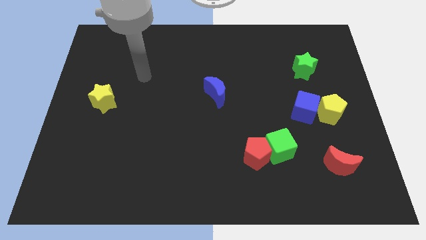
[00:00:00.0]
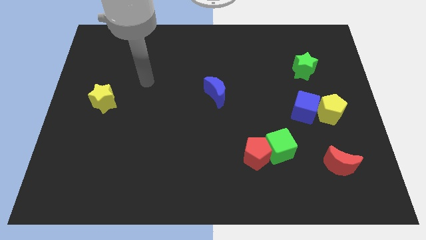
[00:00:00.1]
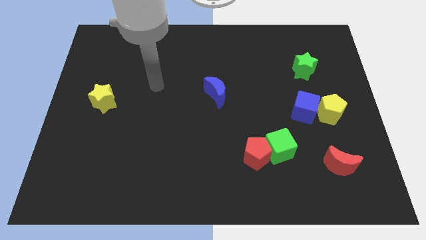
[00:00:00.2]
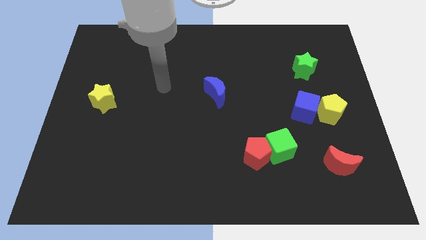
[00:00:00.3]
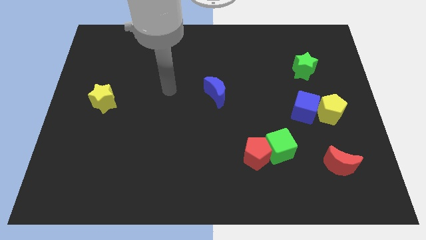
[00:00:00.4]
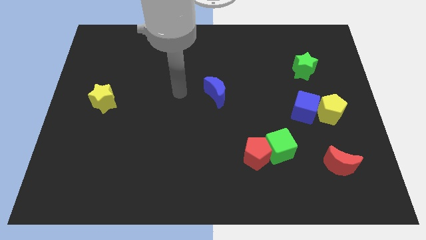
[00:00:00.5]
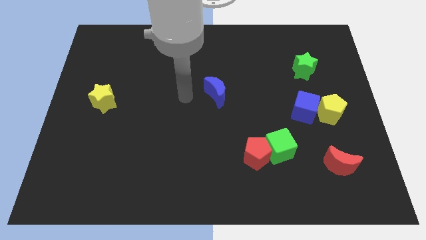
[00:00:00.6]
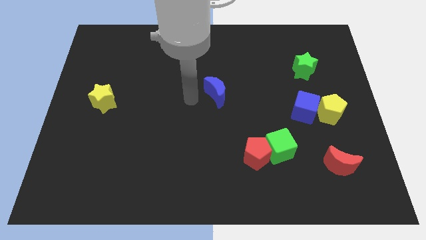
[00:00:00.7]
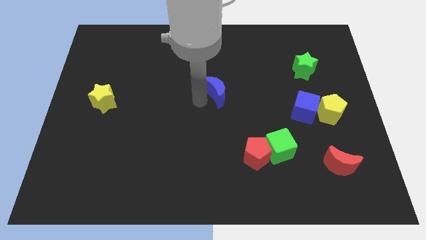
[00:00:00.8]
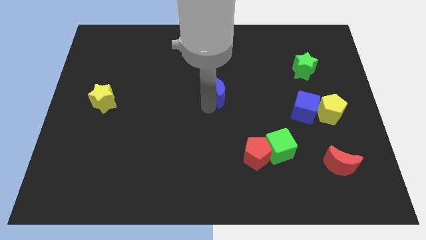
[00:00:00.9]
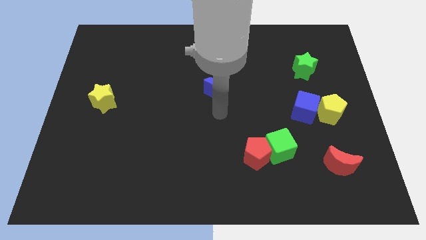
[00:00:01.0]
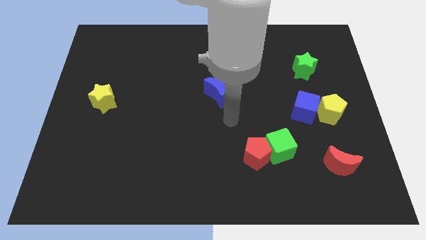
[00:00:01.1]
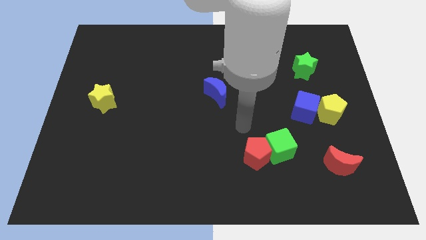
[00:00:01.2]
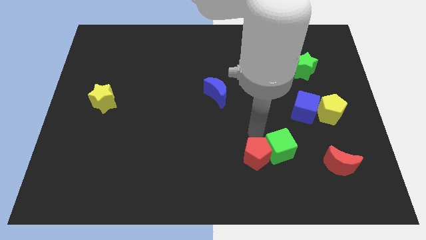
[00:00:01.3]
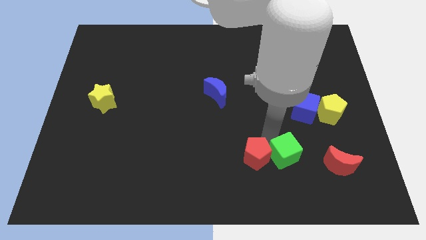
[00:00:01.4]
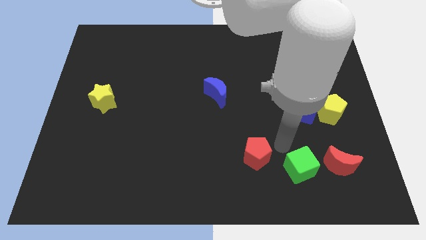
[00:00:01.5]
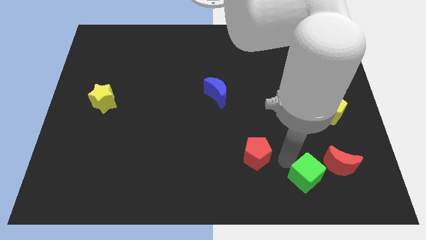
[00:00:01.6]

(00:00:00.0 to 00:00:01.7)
move the red pentagon away from the green cube

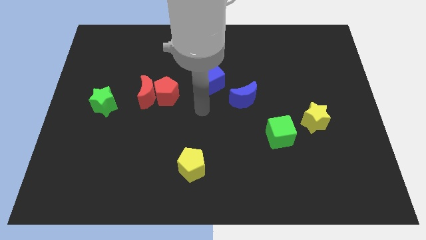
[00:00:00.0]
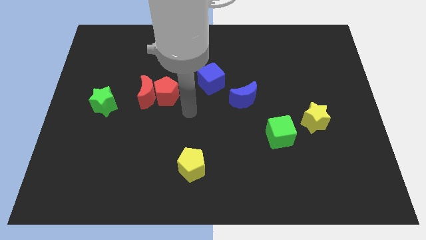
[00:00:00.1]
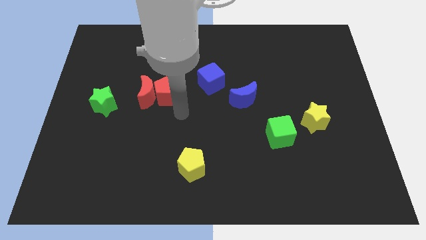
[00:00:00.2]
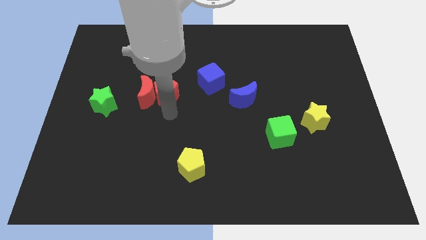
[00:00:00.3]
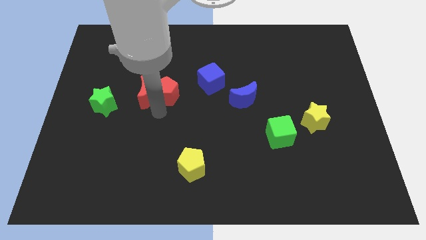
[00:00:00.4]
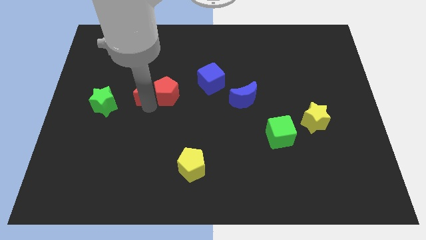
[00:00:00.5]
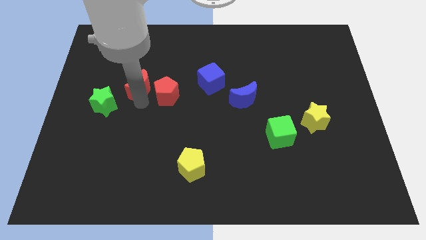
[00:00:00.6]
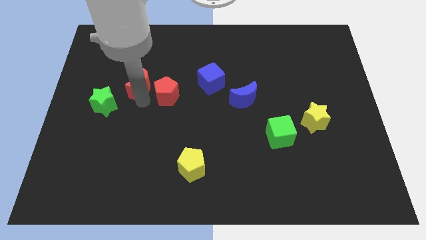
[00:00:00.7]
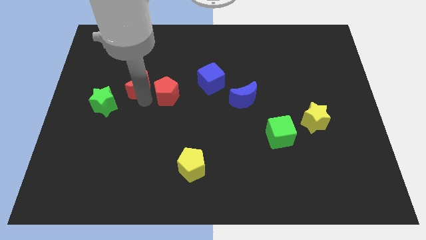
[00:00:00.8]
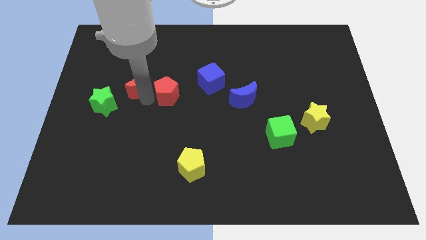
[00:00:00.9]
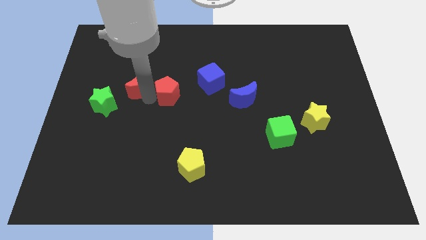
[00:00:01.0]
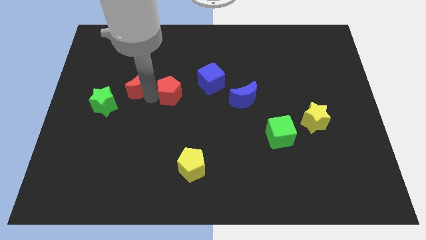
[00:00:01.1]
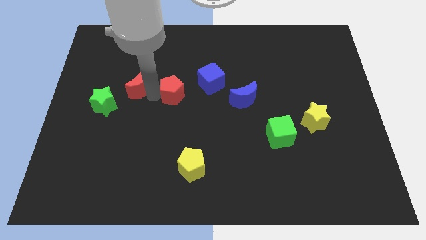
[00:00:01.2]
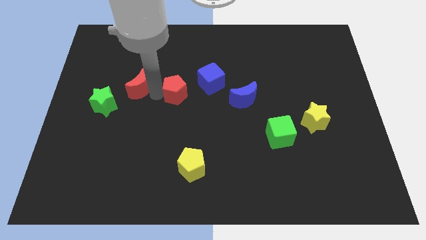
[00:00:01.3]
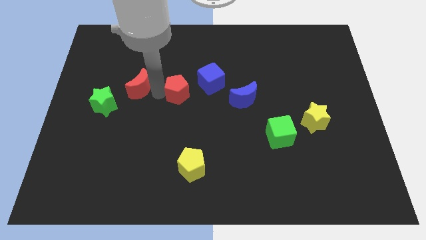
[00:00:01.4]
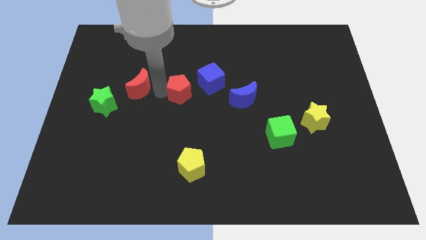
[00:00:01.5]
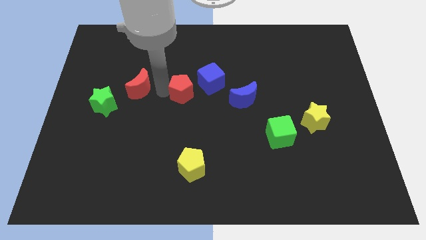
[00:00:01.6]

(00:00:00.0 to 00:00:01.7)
separate the red pentagon from the red moon

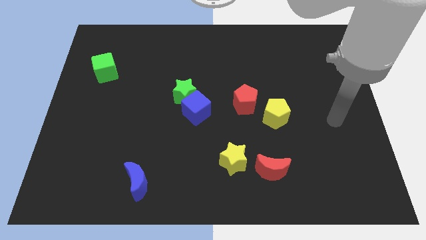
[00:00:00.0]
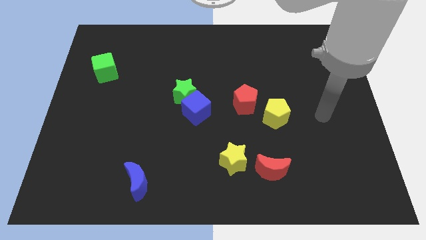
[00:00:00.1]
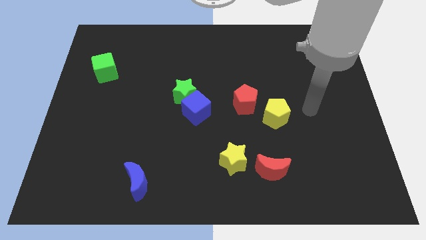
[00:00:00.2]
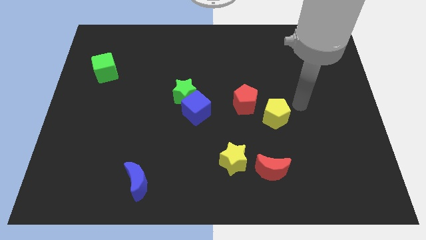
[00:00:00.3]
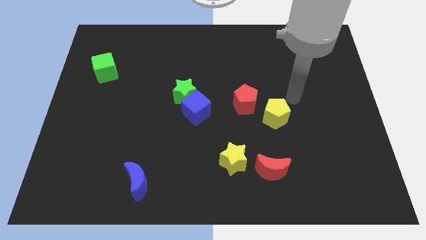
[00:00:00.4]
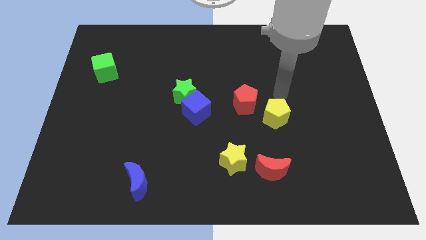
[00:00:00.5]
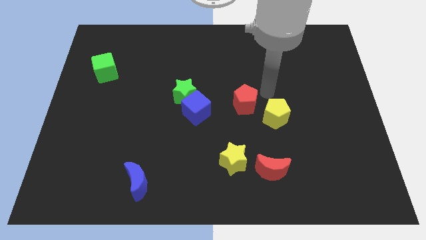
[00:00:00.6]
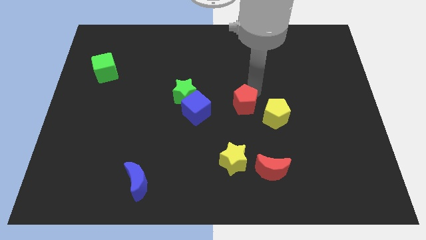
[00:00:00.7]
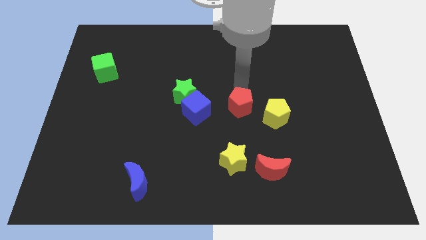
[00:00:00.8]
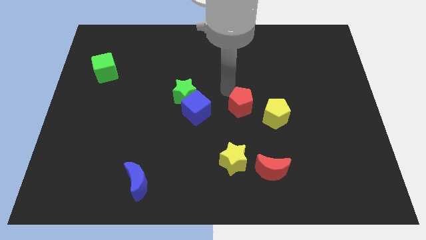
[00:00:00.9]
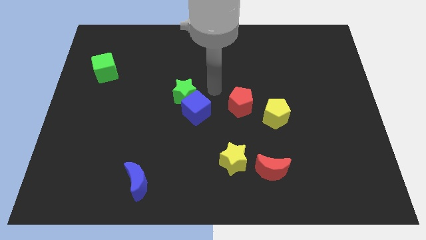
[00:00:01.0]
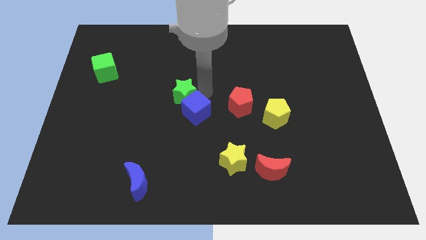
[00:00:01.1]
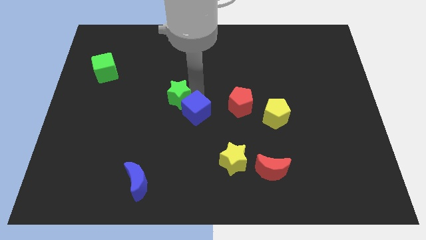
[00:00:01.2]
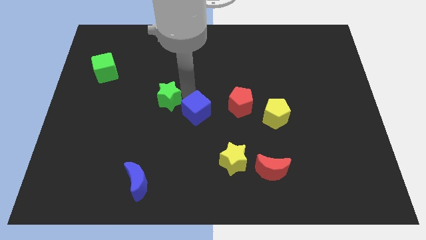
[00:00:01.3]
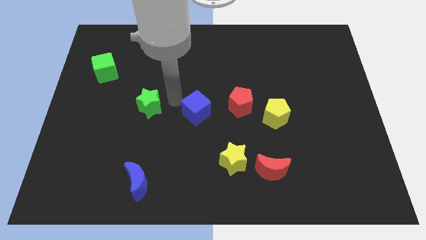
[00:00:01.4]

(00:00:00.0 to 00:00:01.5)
pull the blue cube apart from the green star

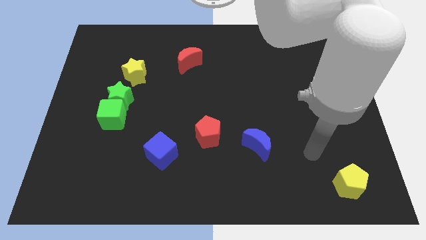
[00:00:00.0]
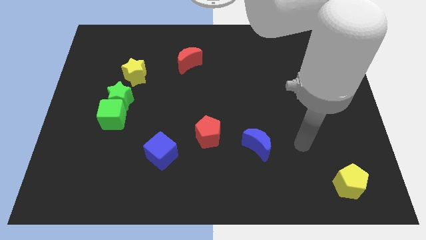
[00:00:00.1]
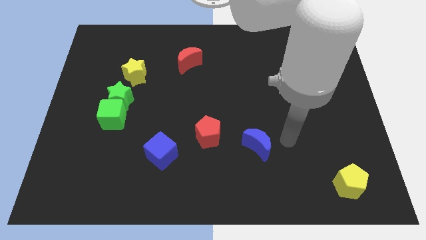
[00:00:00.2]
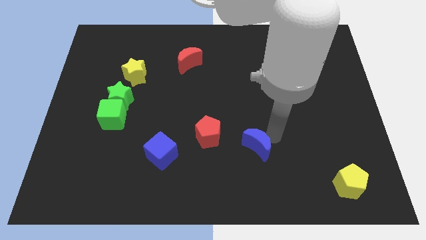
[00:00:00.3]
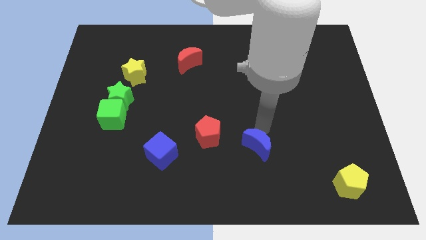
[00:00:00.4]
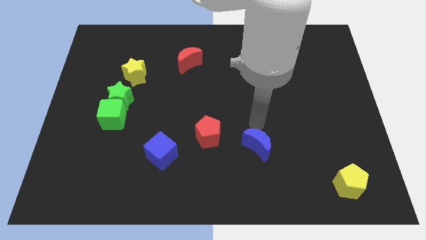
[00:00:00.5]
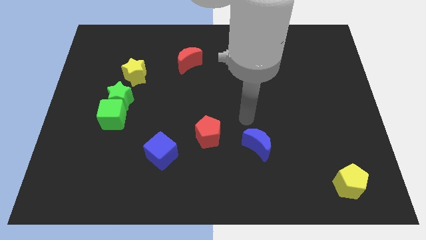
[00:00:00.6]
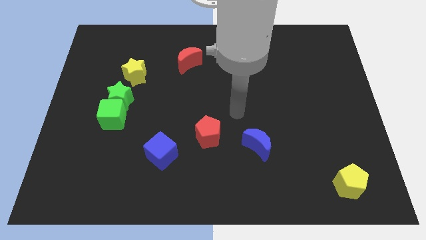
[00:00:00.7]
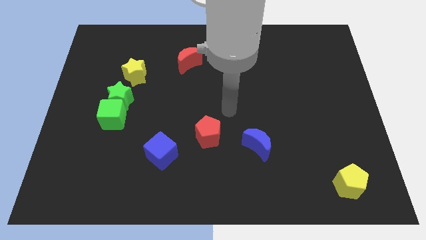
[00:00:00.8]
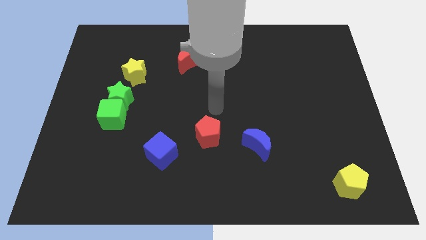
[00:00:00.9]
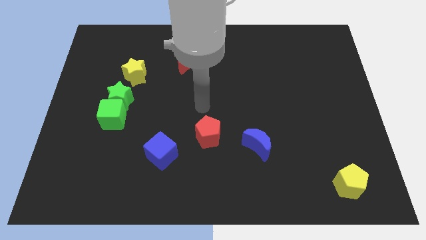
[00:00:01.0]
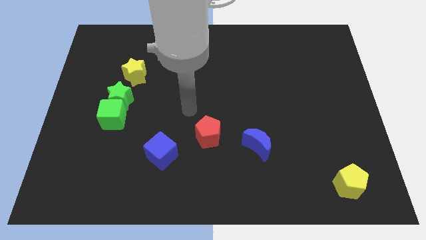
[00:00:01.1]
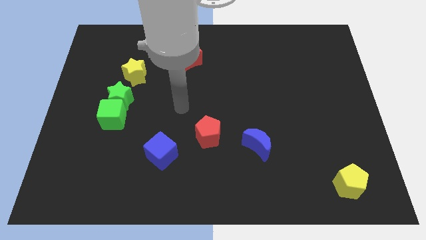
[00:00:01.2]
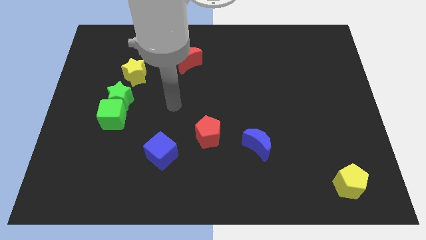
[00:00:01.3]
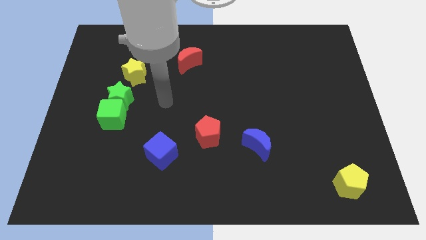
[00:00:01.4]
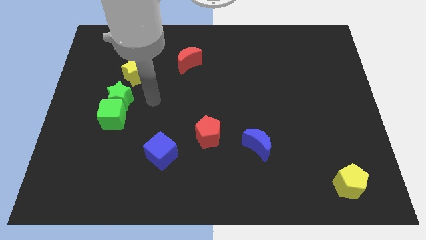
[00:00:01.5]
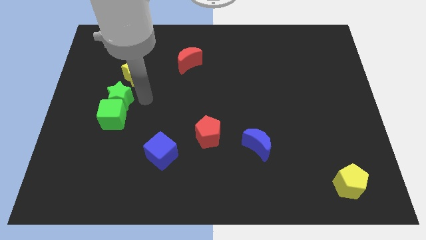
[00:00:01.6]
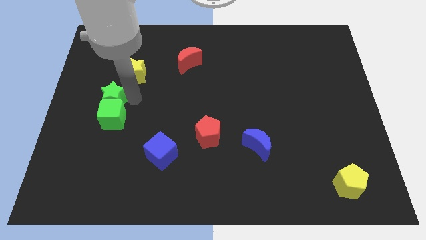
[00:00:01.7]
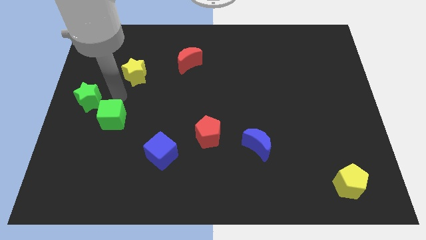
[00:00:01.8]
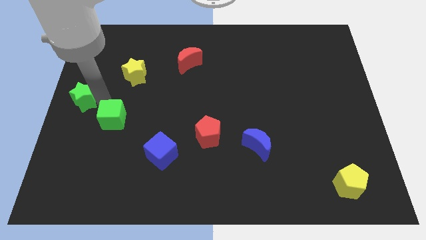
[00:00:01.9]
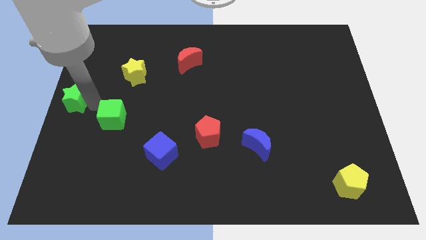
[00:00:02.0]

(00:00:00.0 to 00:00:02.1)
pull the green cube apart from the green star

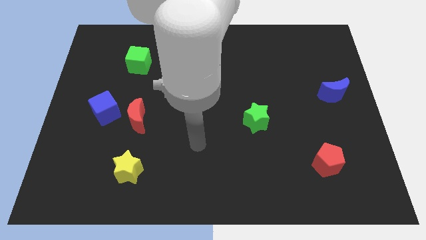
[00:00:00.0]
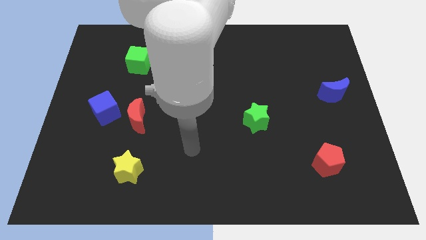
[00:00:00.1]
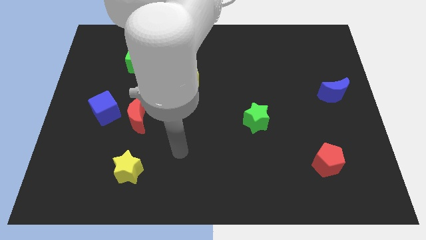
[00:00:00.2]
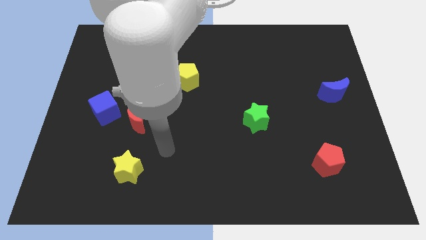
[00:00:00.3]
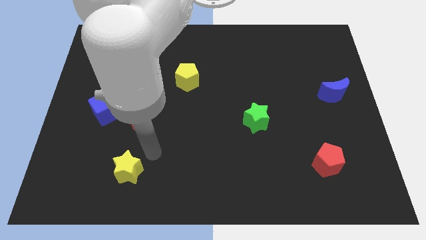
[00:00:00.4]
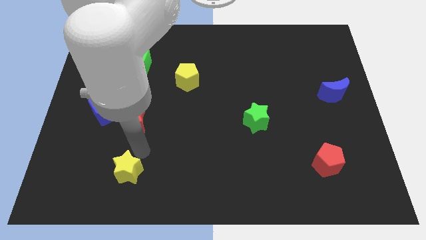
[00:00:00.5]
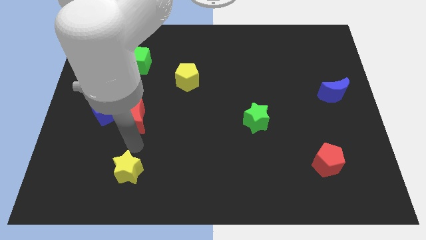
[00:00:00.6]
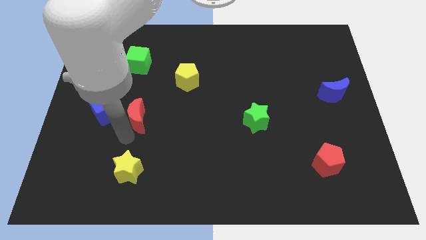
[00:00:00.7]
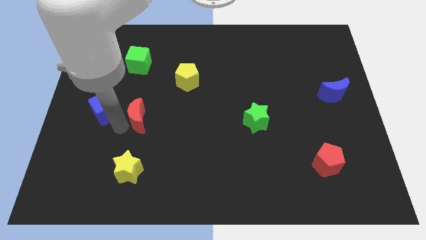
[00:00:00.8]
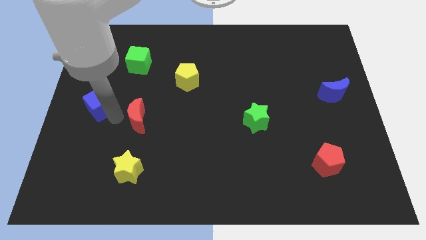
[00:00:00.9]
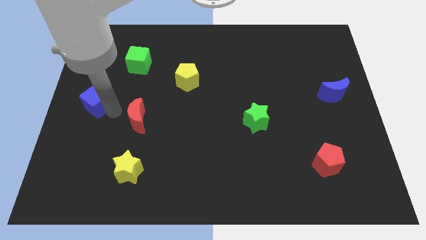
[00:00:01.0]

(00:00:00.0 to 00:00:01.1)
pull the red moon apart from the blue cube

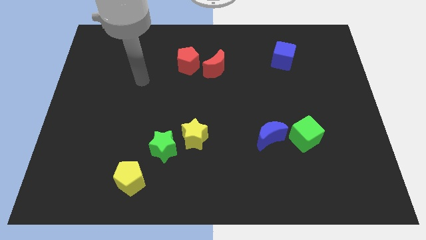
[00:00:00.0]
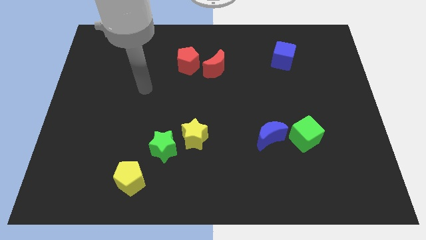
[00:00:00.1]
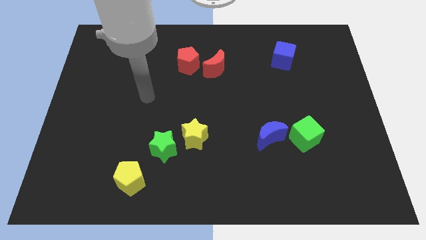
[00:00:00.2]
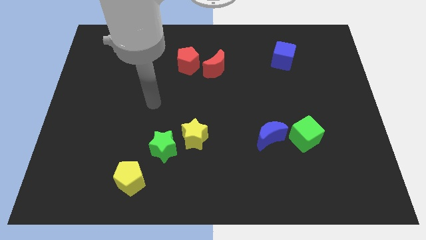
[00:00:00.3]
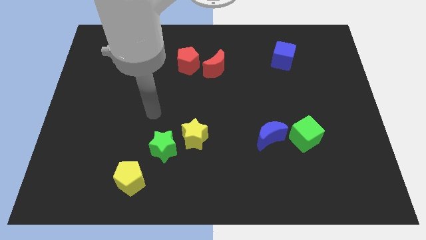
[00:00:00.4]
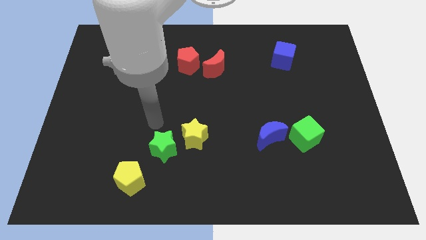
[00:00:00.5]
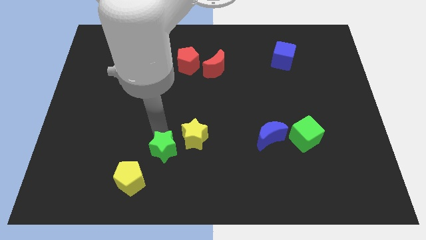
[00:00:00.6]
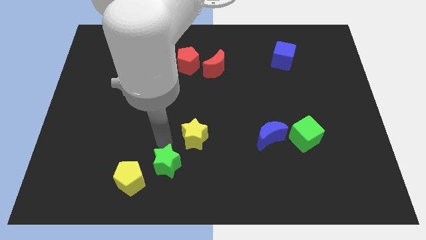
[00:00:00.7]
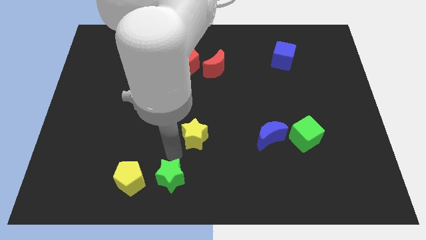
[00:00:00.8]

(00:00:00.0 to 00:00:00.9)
move the yellow star away from the green star

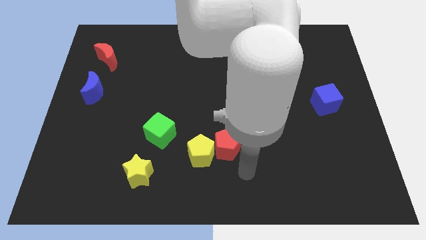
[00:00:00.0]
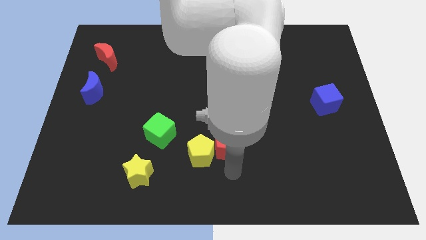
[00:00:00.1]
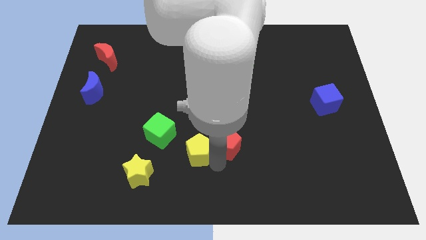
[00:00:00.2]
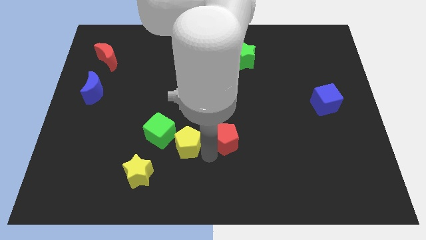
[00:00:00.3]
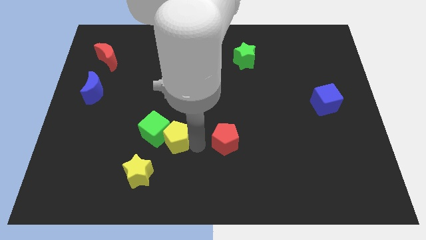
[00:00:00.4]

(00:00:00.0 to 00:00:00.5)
move the red pentagon away from the yellow pentagon
